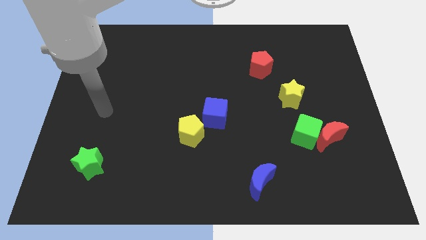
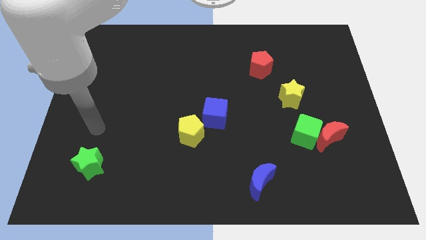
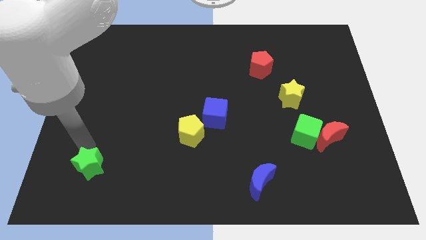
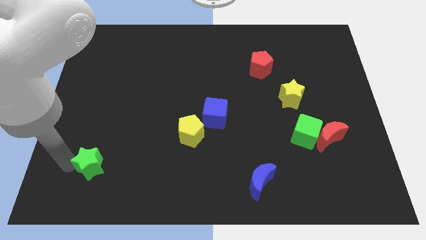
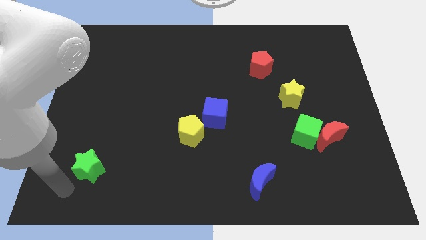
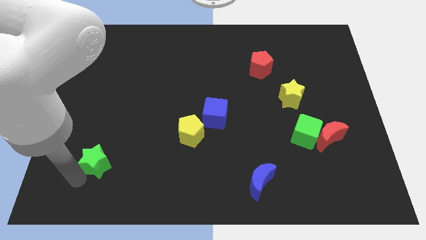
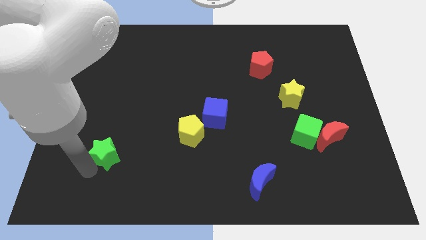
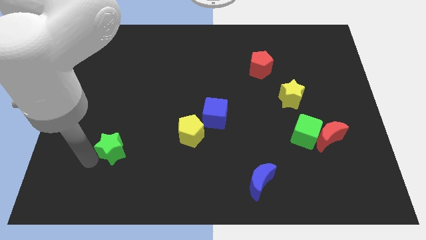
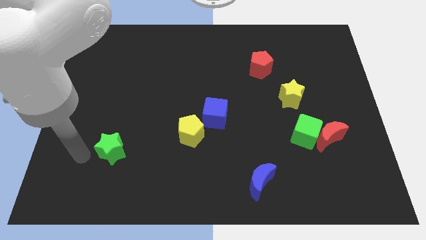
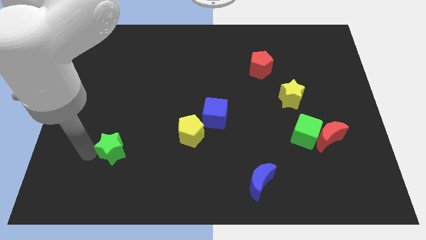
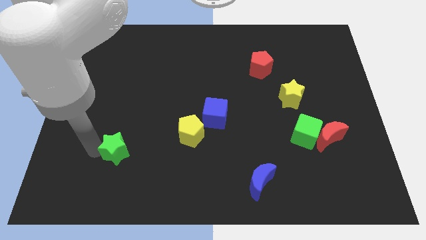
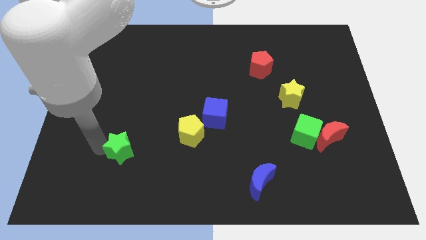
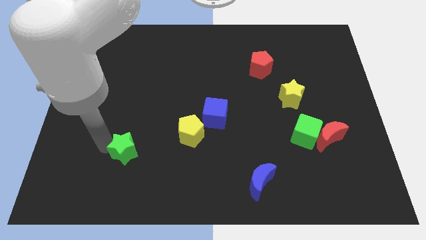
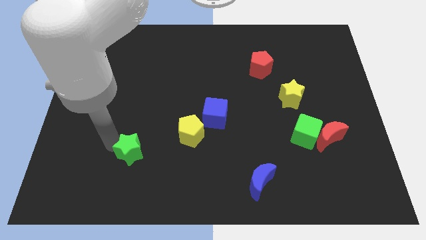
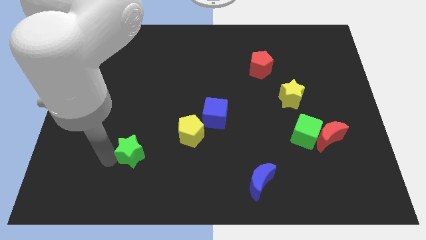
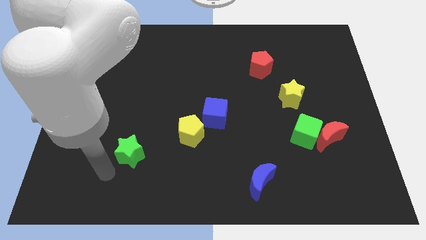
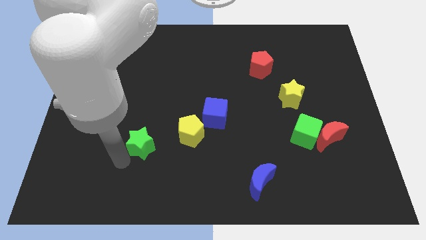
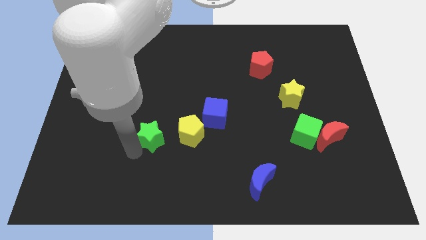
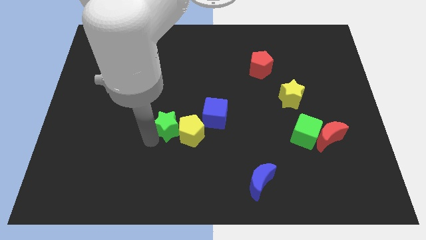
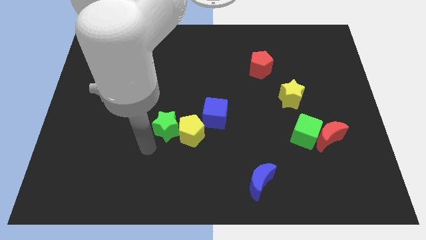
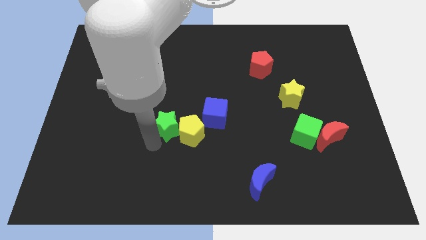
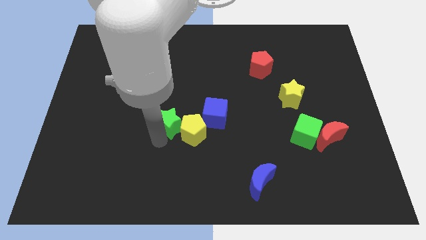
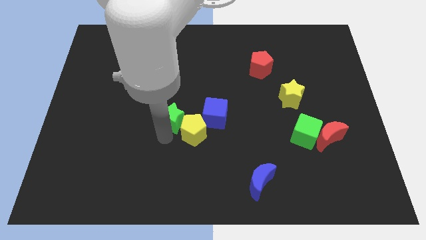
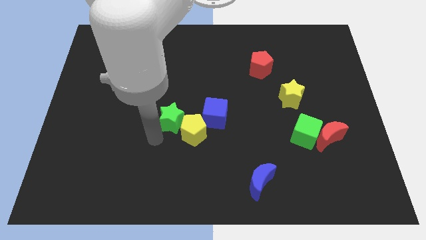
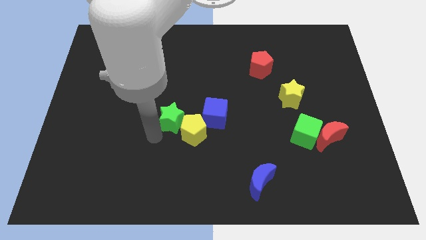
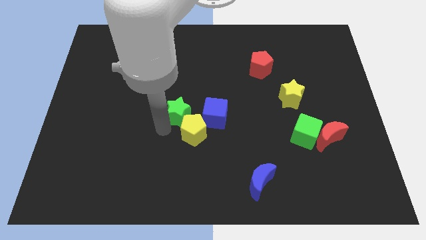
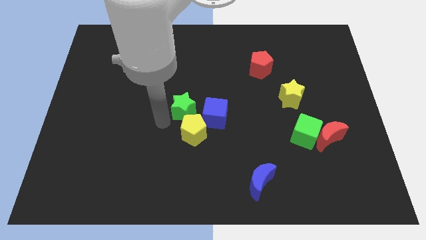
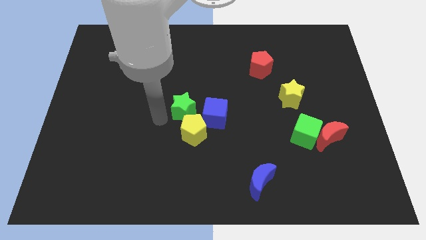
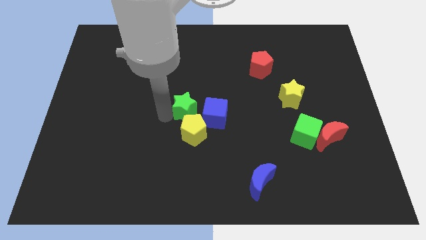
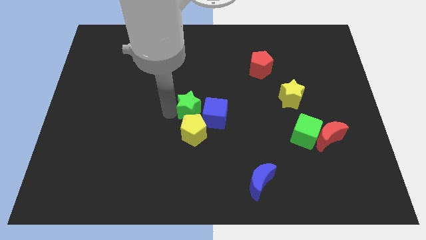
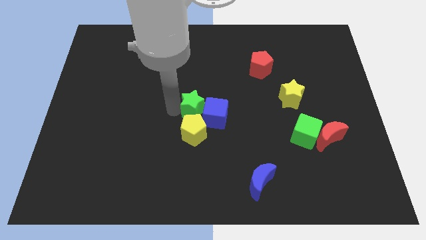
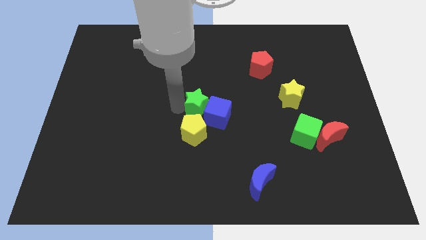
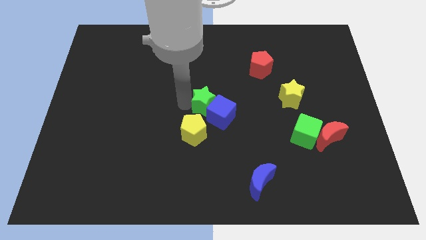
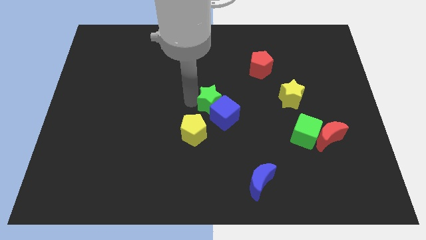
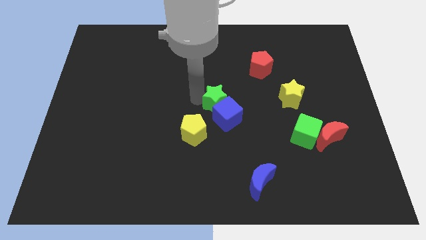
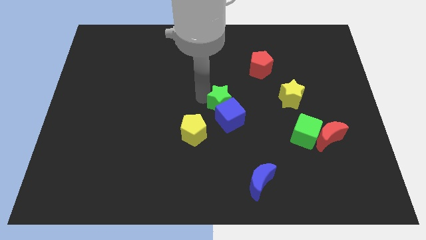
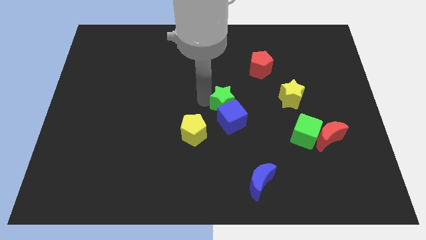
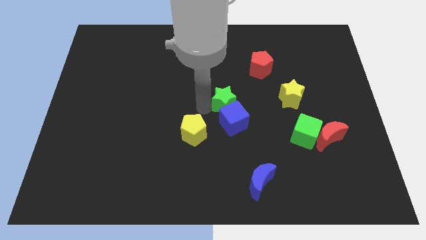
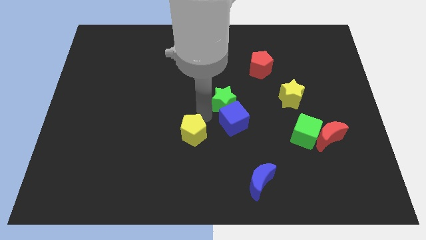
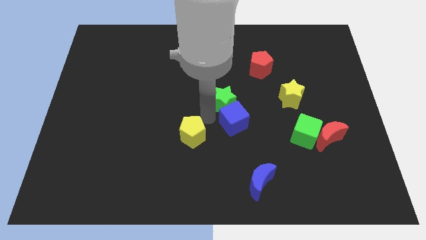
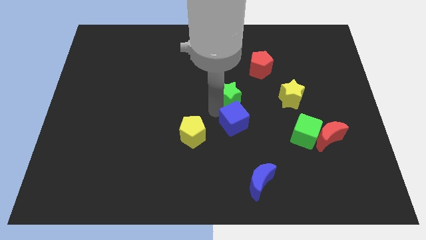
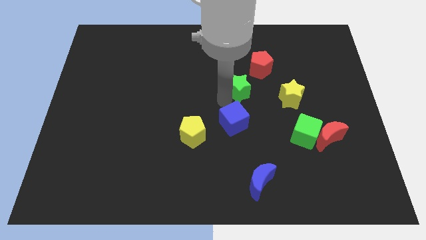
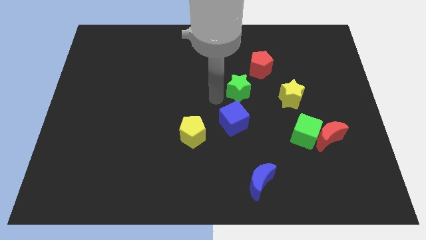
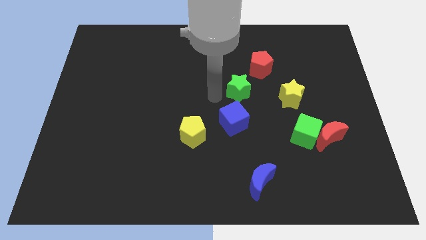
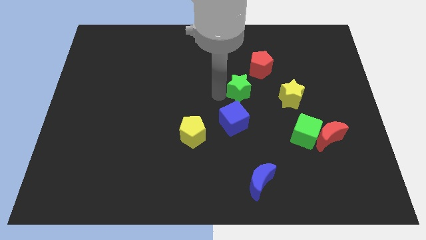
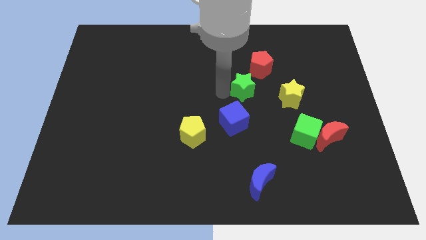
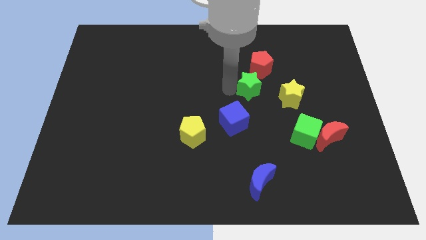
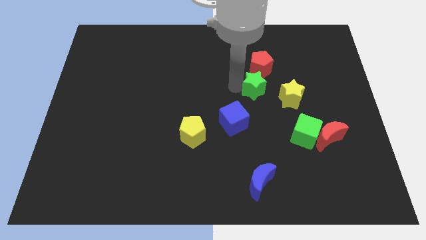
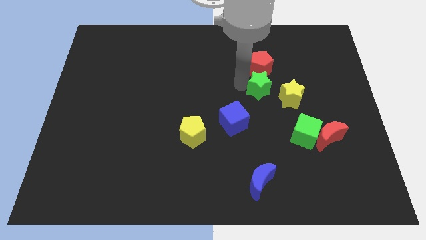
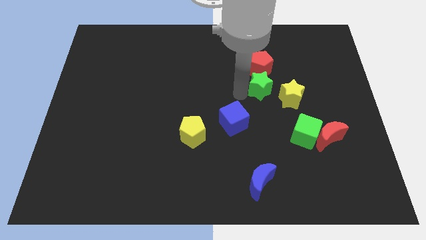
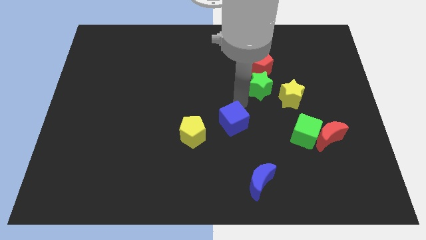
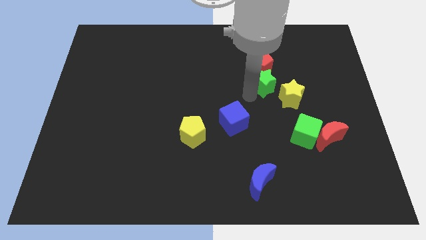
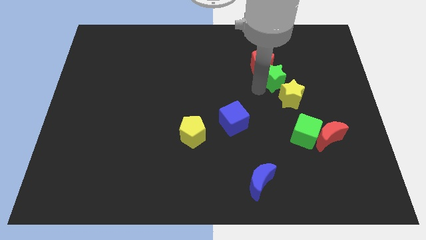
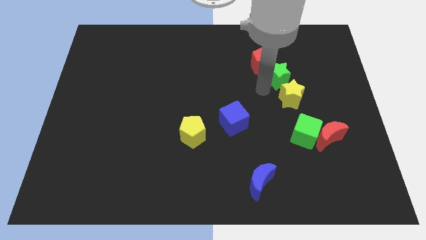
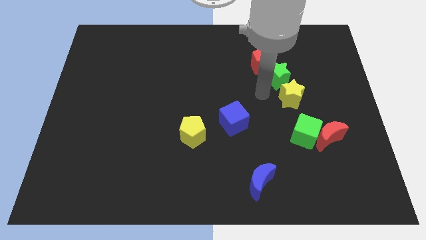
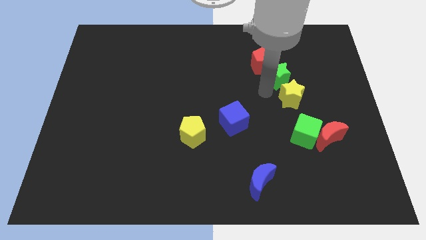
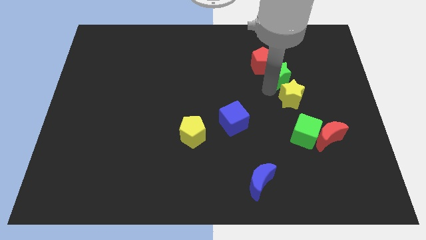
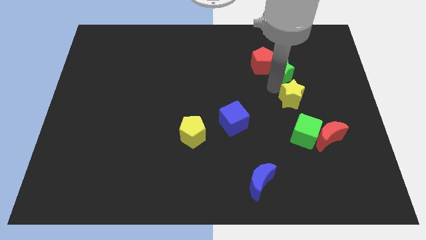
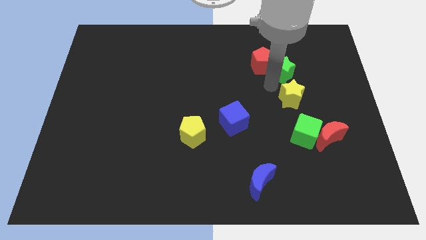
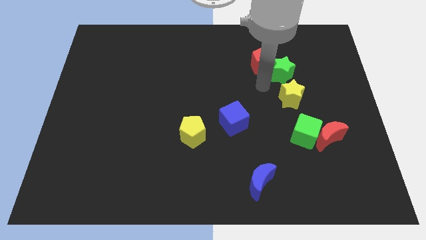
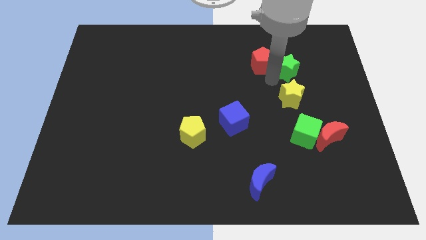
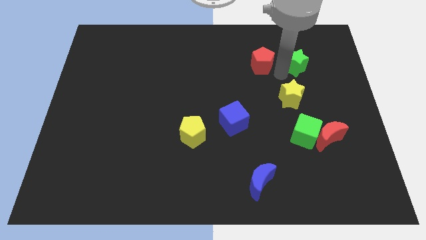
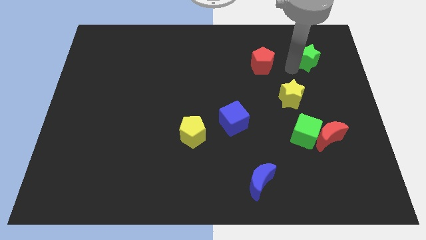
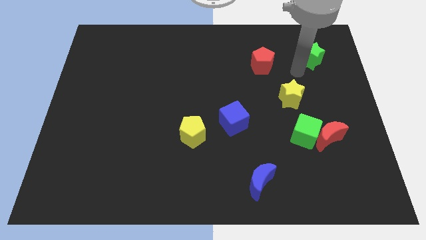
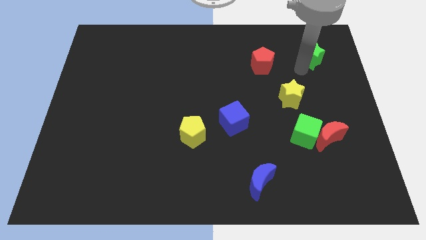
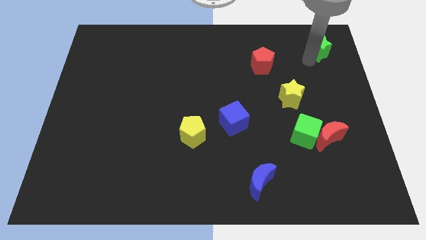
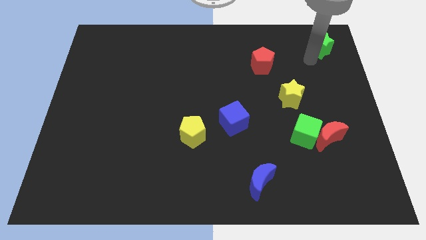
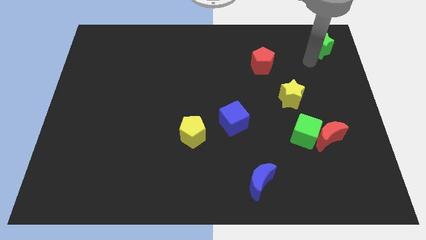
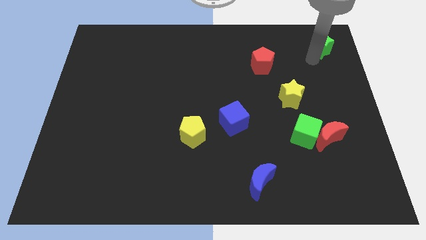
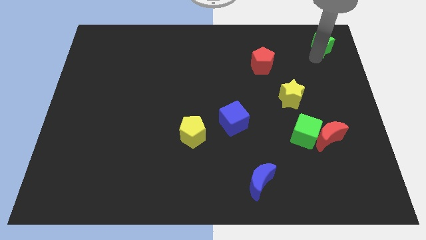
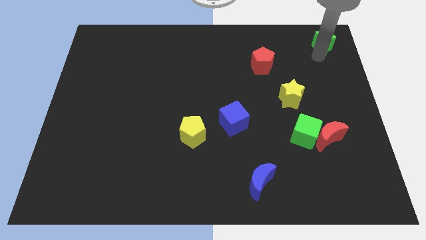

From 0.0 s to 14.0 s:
move the green star to the top right of the board
